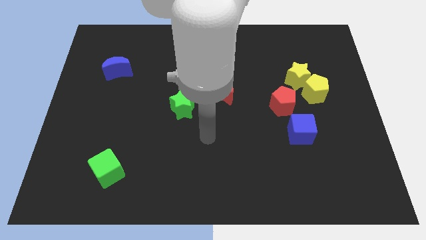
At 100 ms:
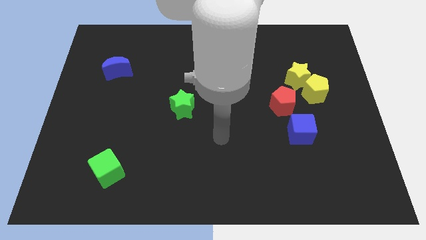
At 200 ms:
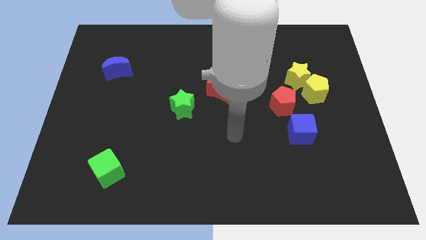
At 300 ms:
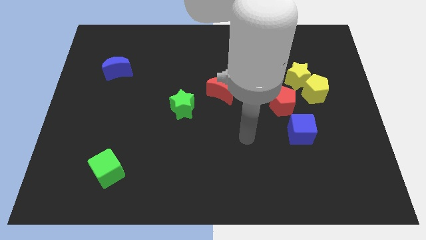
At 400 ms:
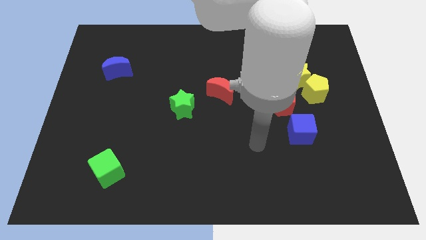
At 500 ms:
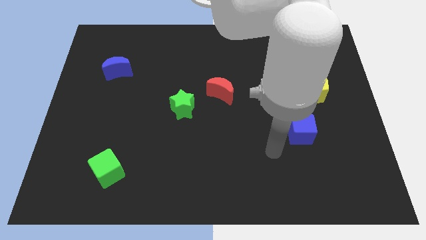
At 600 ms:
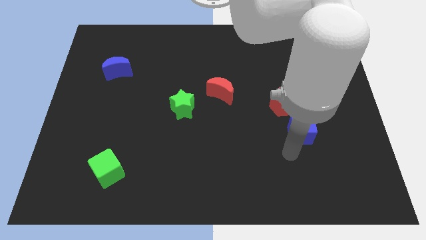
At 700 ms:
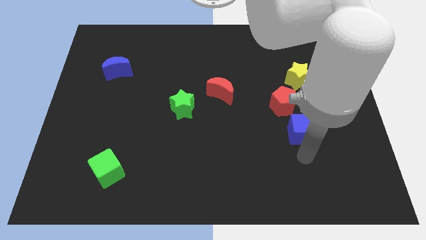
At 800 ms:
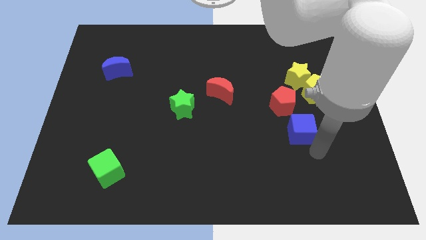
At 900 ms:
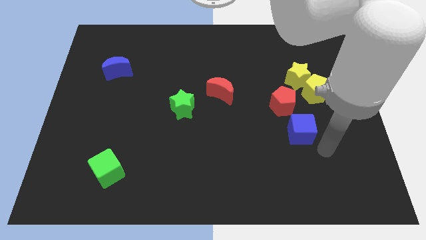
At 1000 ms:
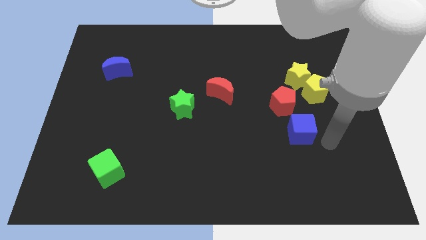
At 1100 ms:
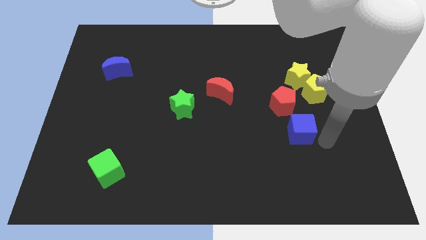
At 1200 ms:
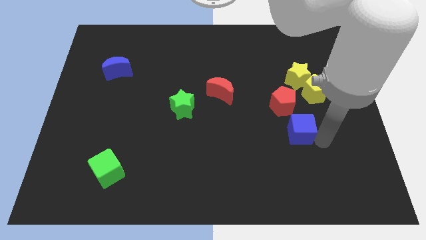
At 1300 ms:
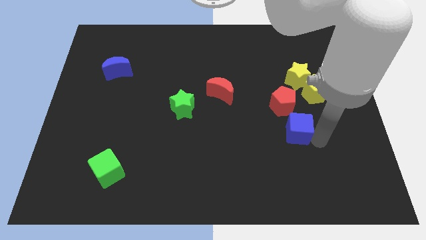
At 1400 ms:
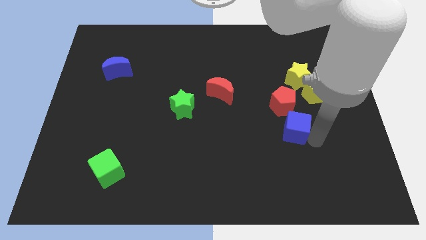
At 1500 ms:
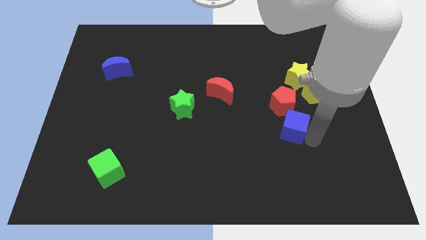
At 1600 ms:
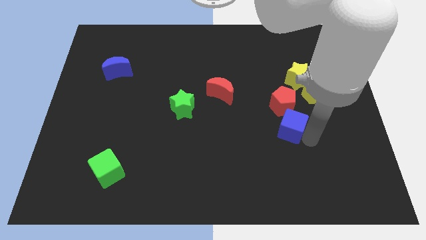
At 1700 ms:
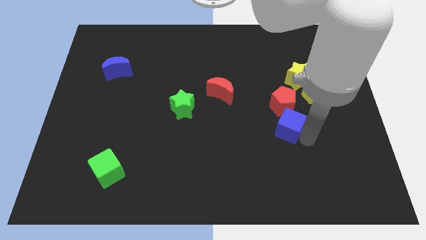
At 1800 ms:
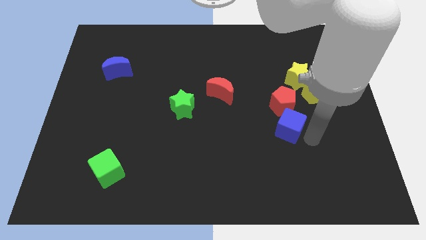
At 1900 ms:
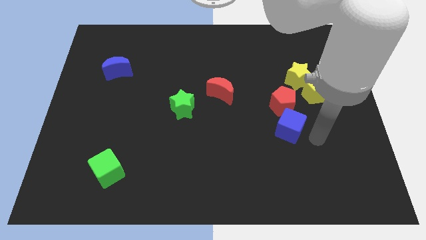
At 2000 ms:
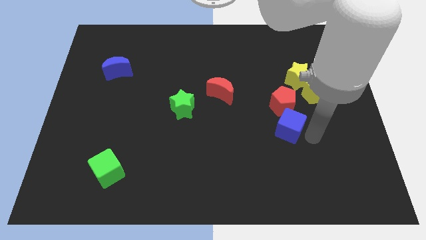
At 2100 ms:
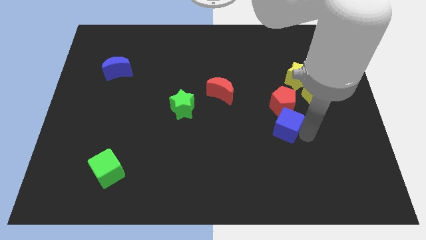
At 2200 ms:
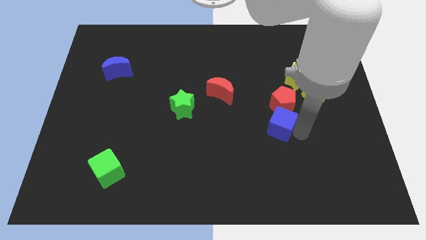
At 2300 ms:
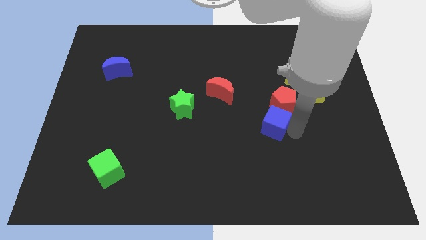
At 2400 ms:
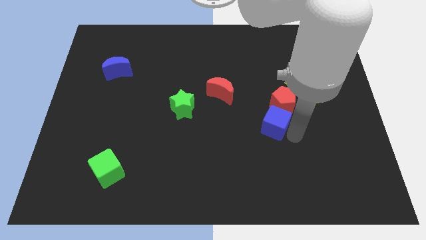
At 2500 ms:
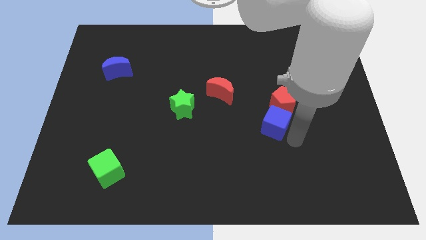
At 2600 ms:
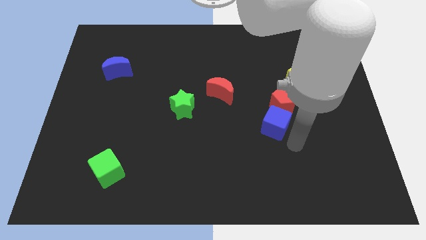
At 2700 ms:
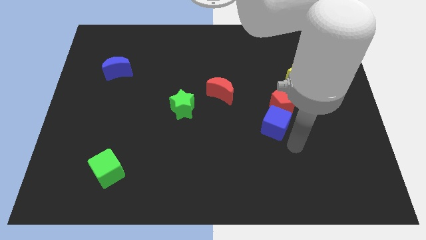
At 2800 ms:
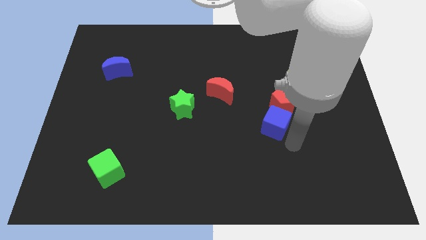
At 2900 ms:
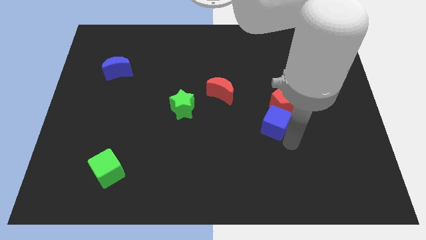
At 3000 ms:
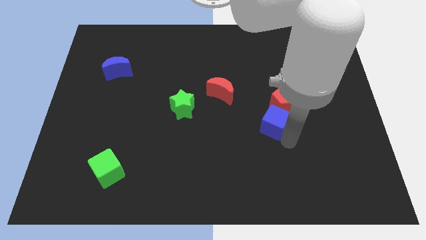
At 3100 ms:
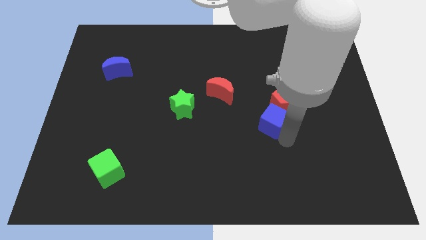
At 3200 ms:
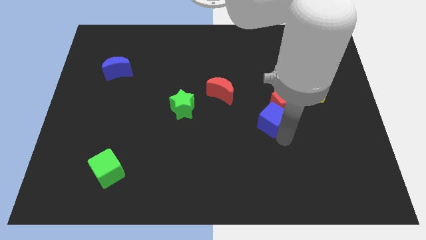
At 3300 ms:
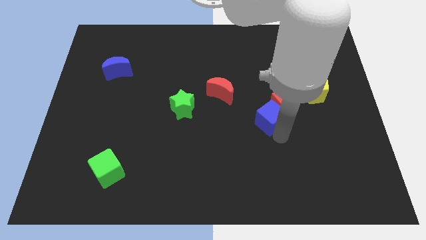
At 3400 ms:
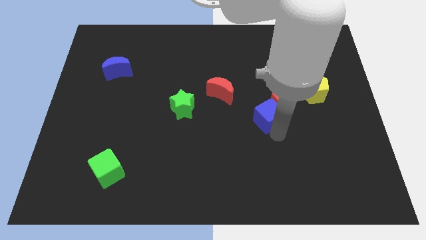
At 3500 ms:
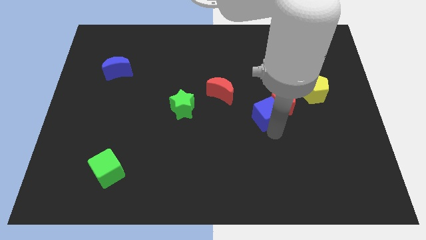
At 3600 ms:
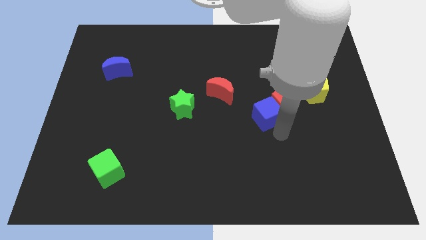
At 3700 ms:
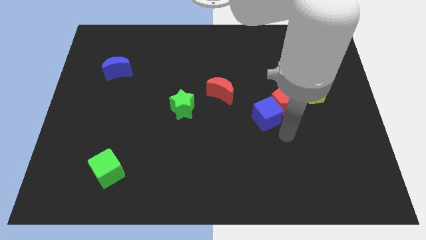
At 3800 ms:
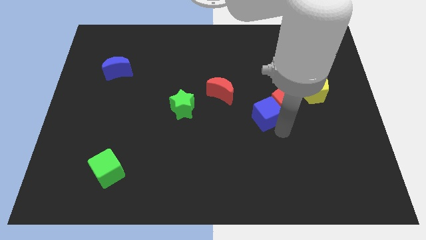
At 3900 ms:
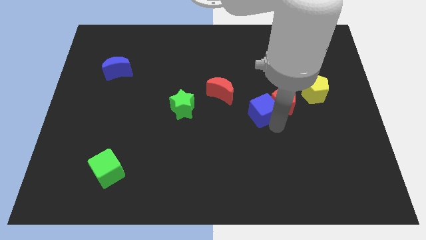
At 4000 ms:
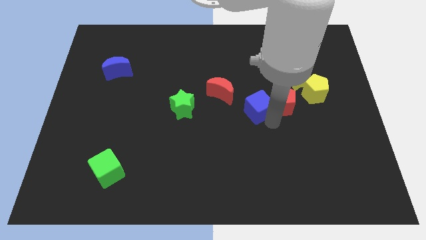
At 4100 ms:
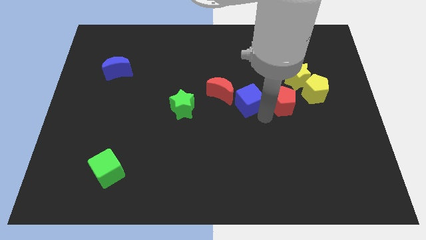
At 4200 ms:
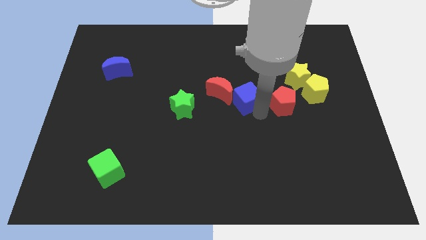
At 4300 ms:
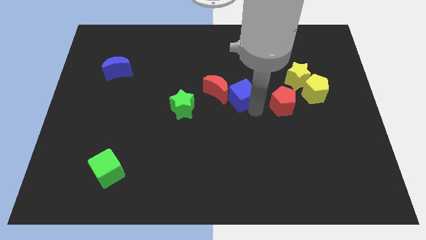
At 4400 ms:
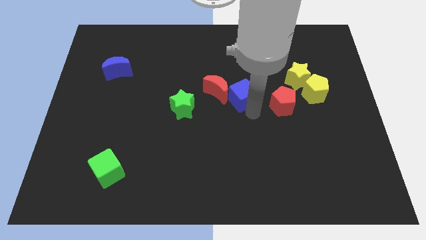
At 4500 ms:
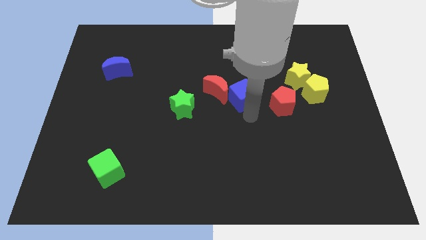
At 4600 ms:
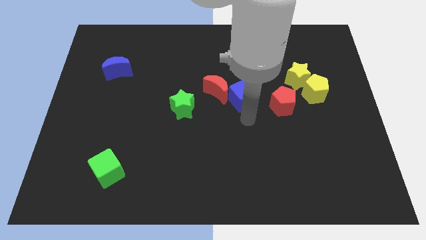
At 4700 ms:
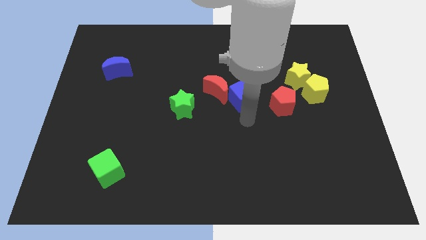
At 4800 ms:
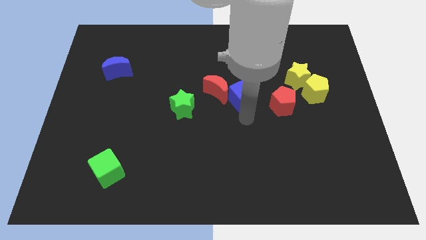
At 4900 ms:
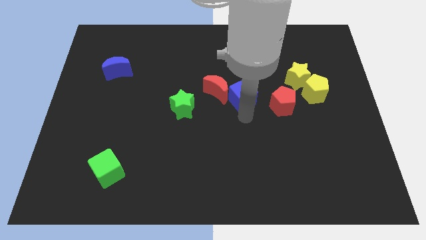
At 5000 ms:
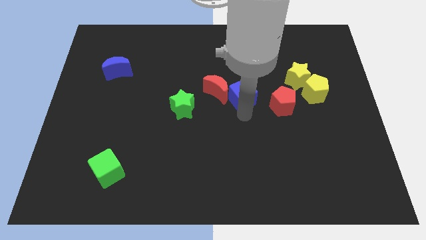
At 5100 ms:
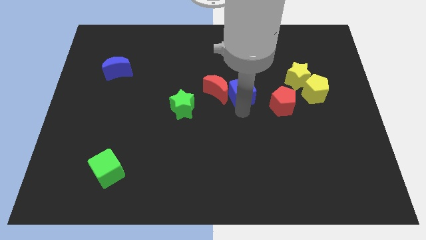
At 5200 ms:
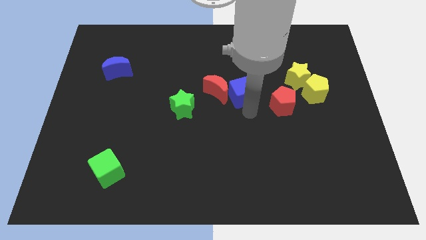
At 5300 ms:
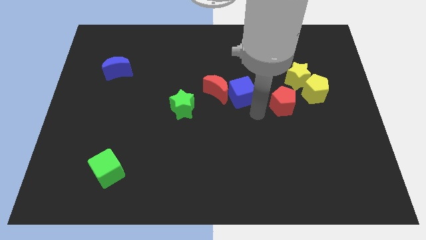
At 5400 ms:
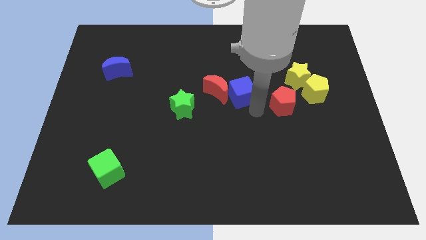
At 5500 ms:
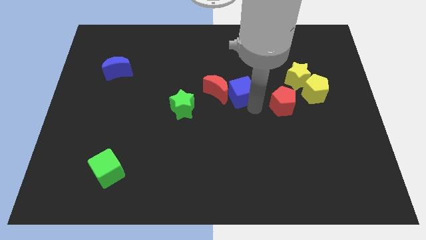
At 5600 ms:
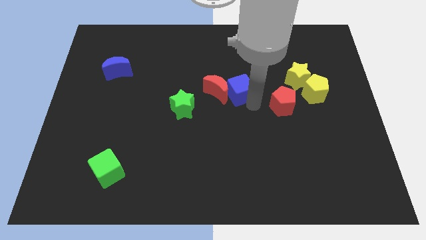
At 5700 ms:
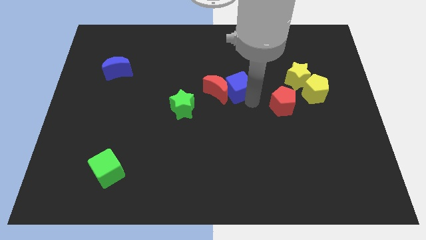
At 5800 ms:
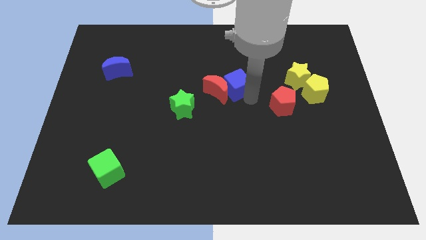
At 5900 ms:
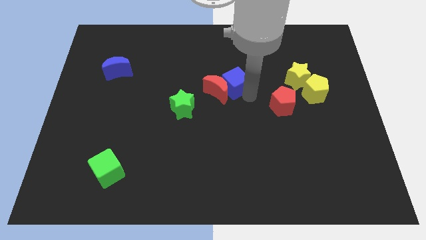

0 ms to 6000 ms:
move the blue cube up and left

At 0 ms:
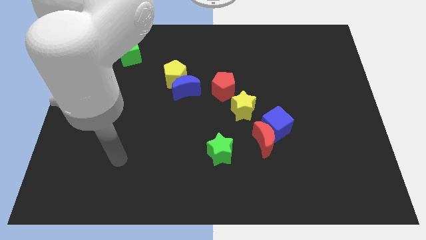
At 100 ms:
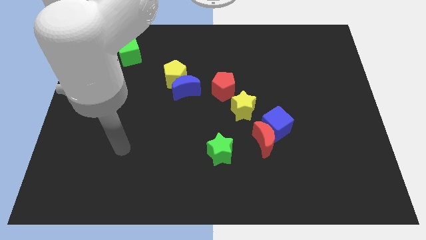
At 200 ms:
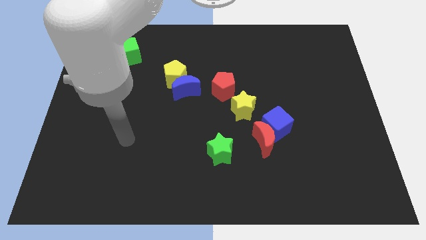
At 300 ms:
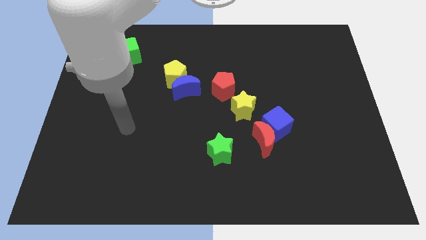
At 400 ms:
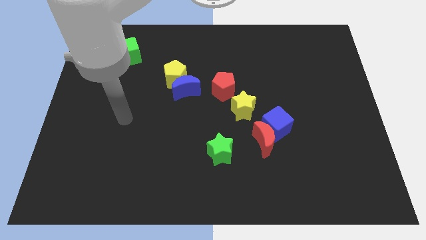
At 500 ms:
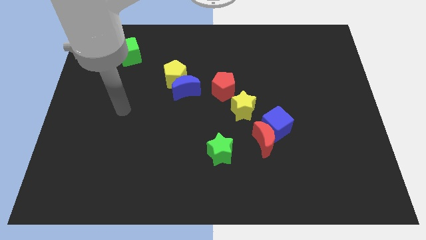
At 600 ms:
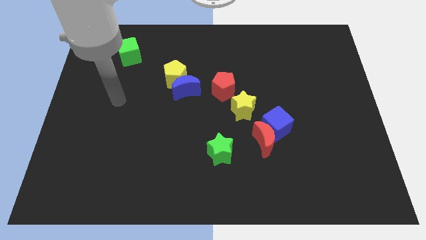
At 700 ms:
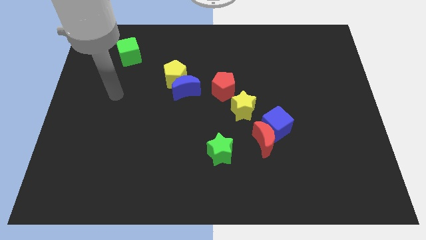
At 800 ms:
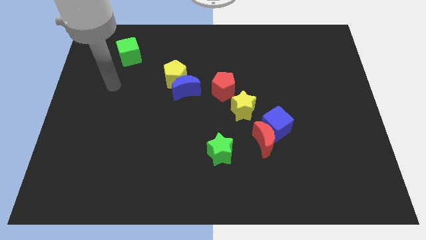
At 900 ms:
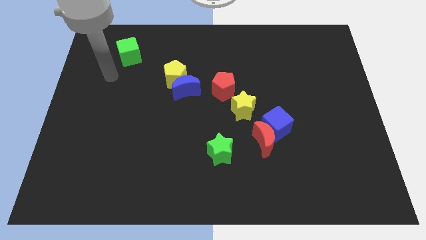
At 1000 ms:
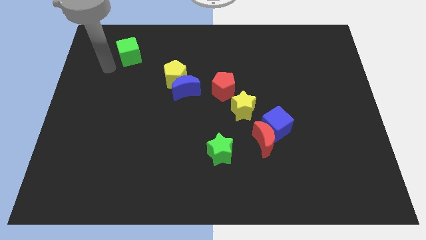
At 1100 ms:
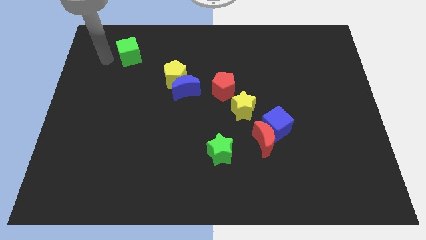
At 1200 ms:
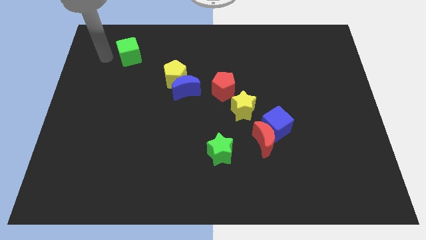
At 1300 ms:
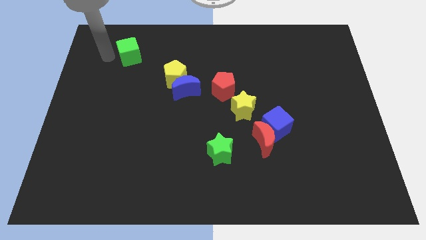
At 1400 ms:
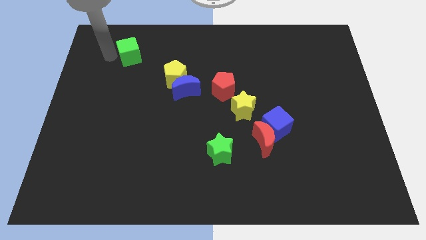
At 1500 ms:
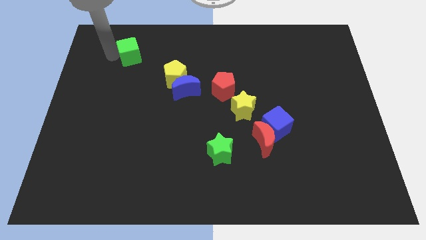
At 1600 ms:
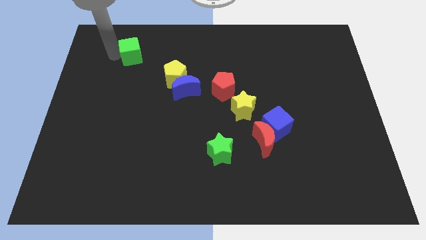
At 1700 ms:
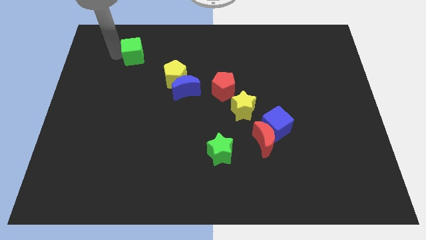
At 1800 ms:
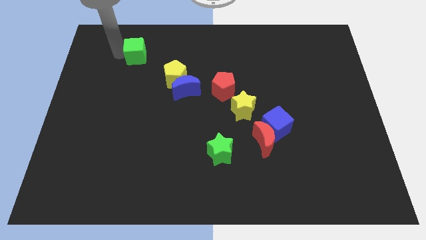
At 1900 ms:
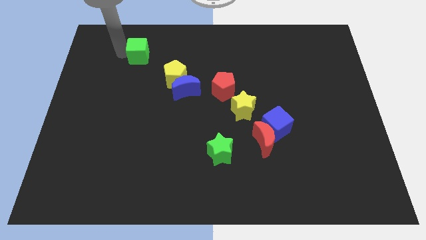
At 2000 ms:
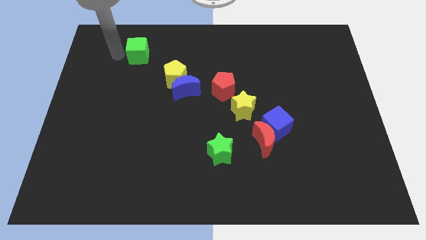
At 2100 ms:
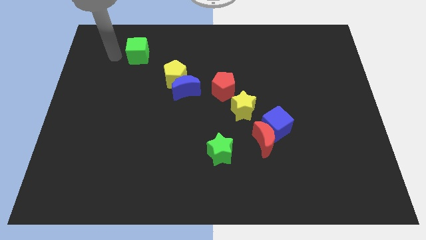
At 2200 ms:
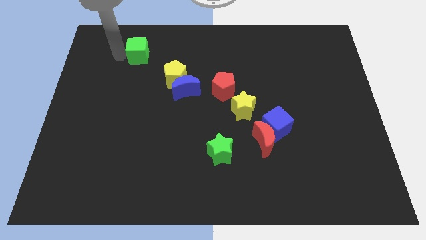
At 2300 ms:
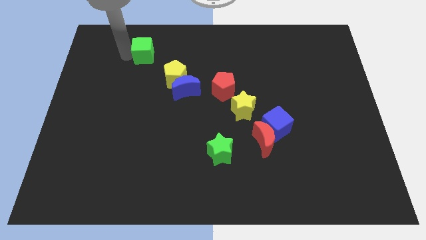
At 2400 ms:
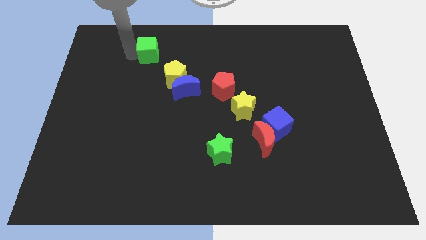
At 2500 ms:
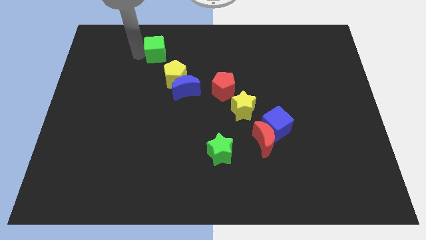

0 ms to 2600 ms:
move the green cube slightly right
